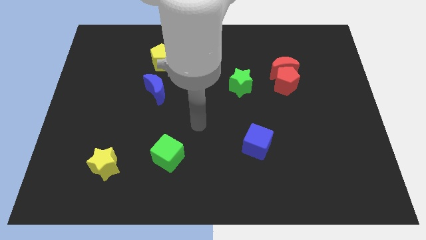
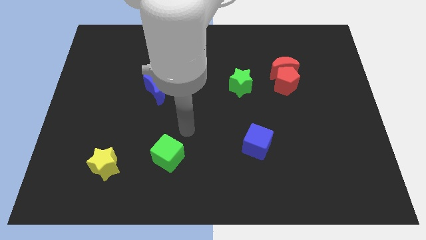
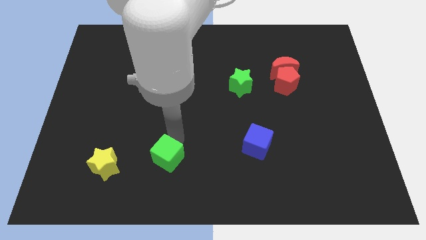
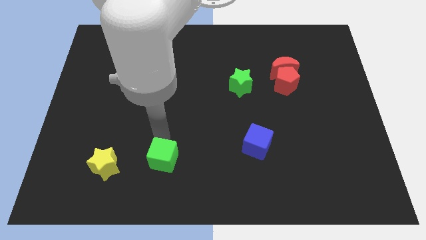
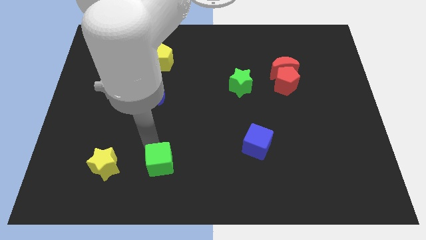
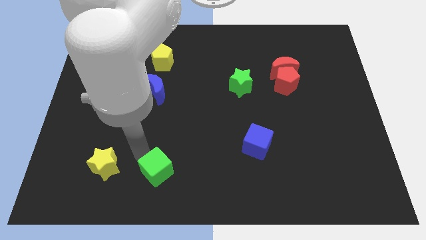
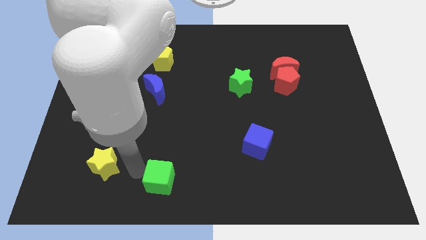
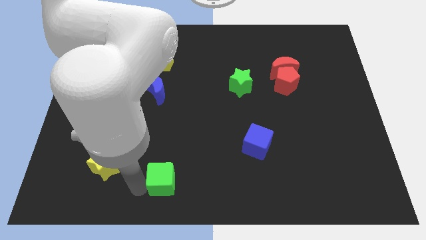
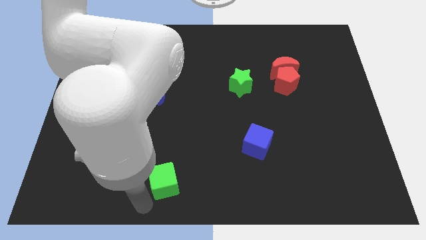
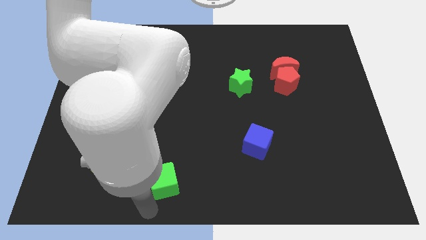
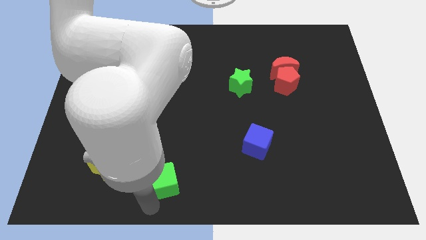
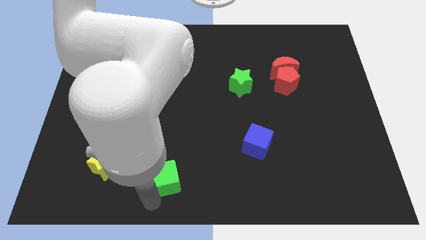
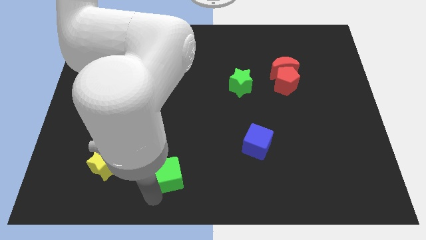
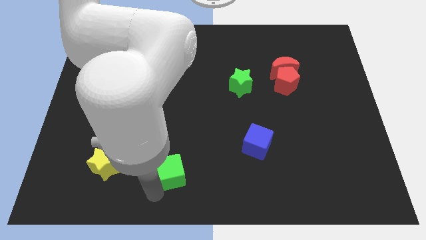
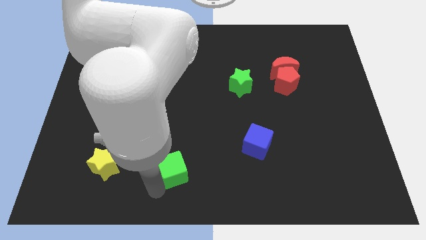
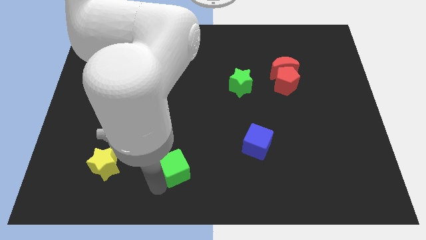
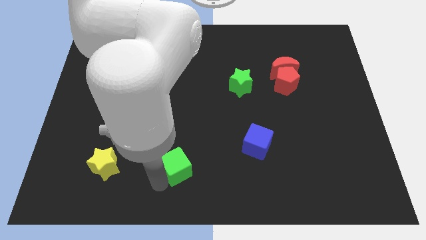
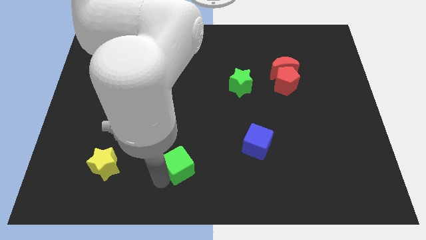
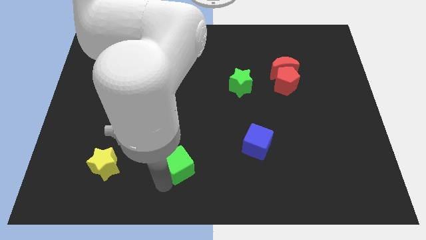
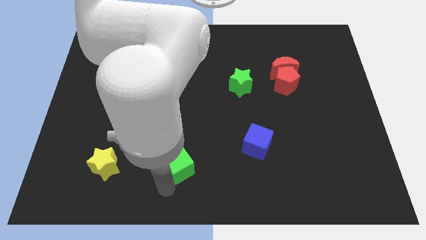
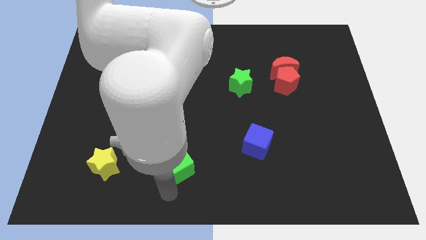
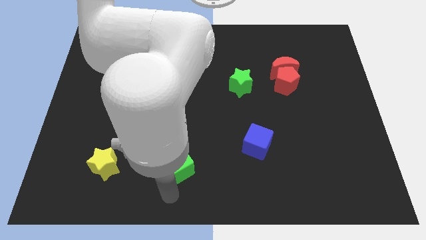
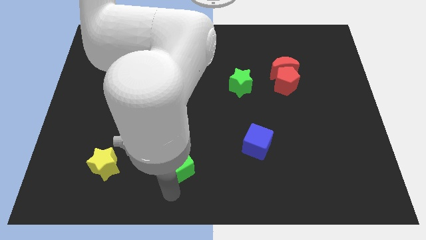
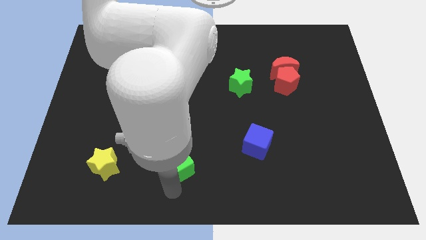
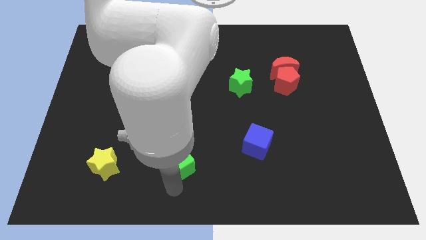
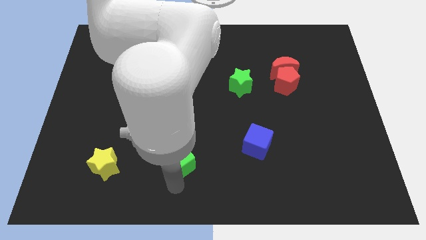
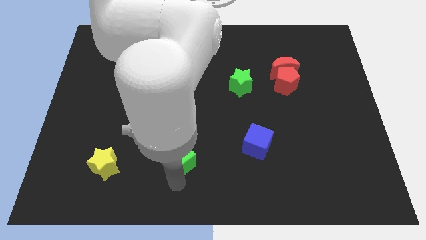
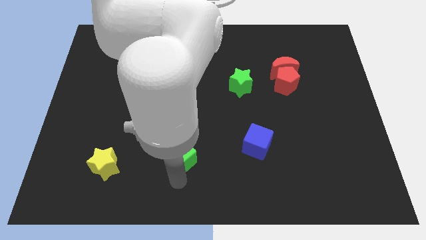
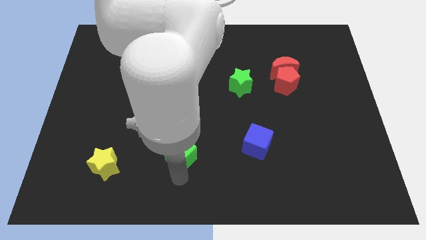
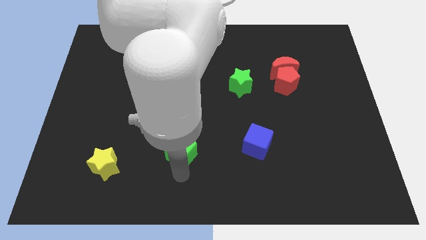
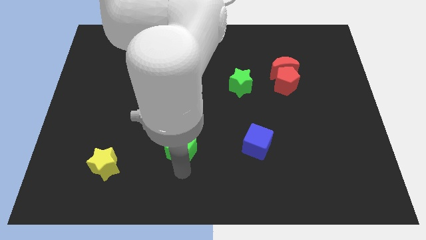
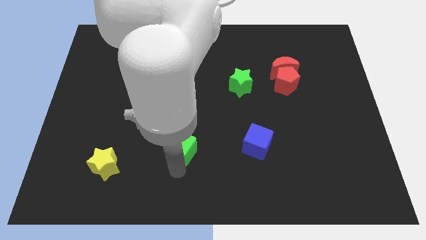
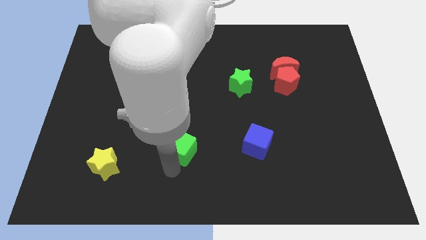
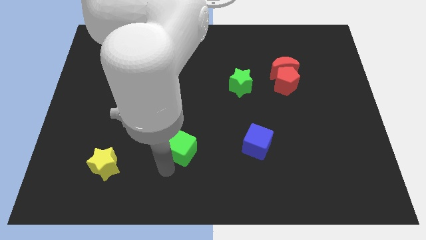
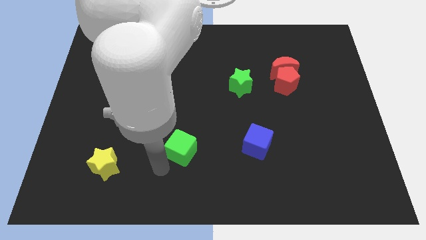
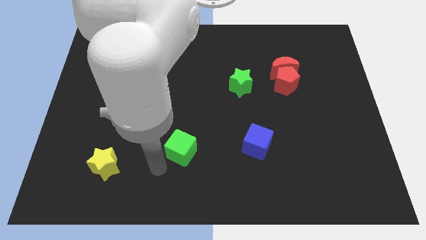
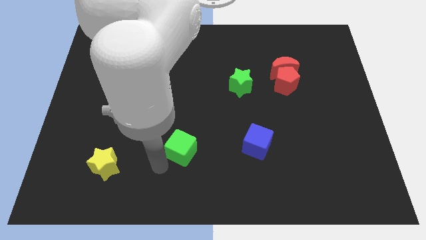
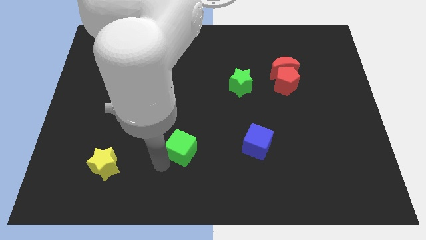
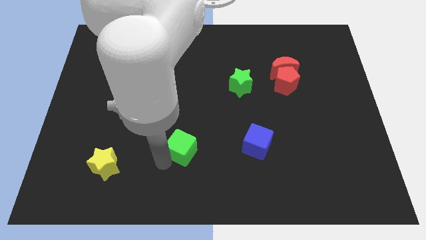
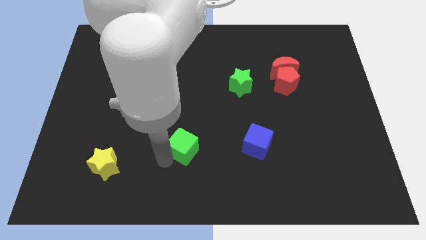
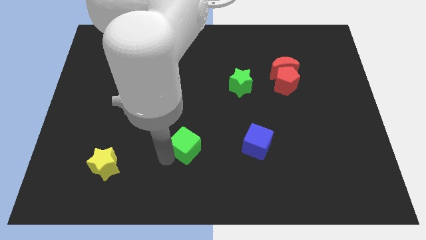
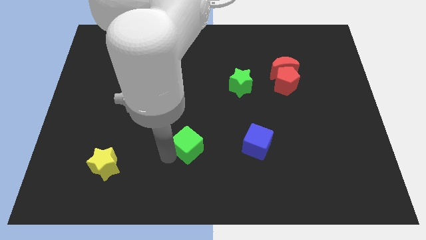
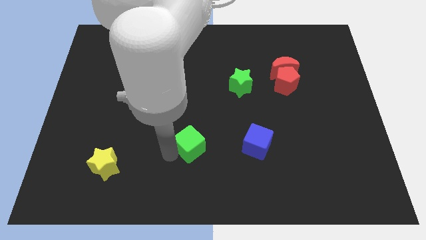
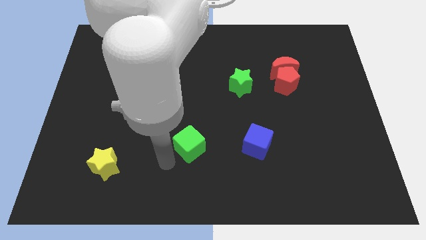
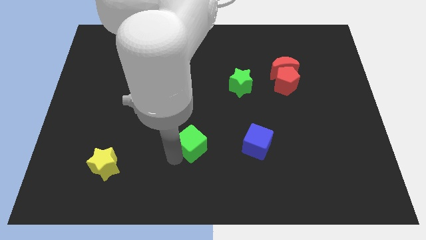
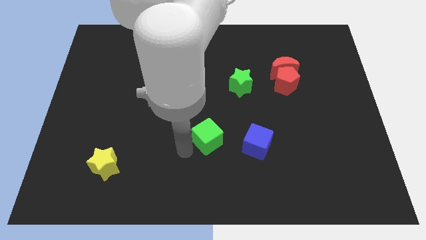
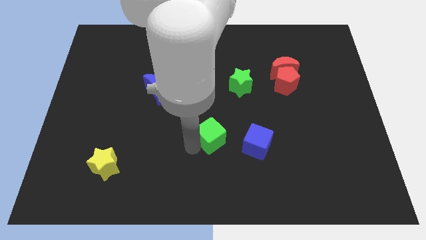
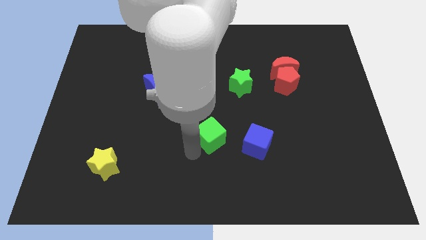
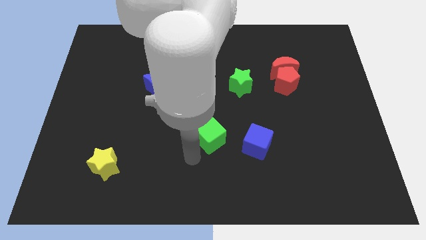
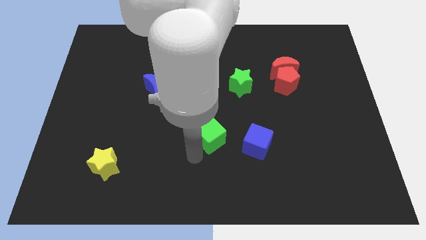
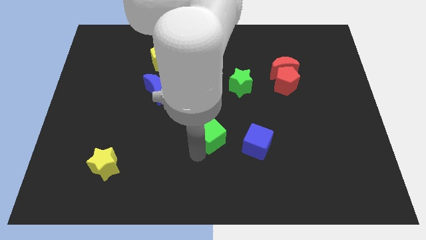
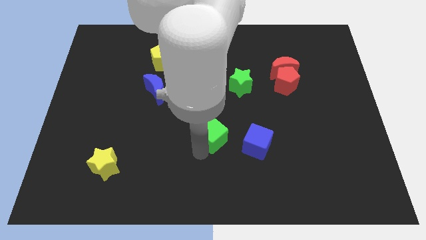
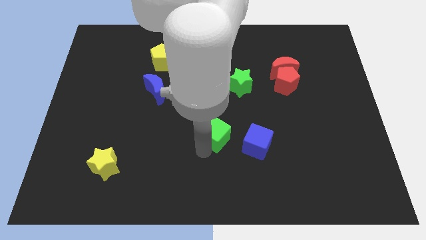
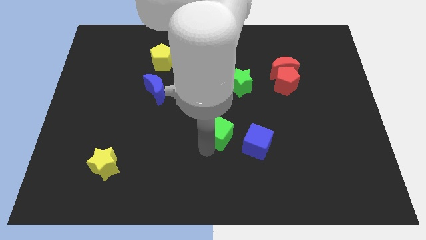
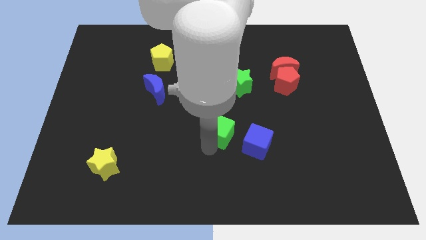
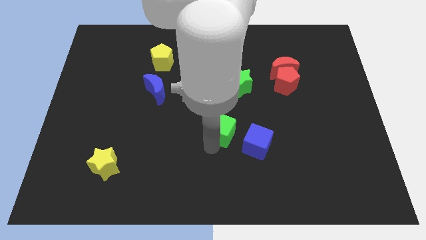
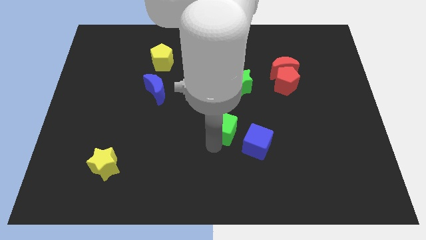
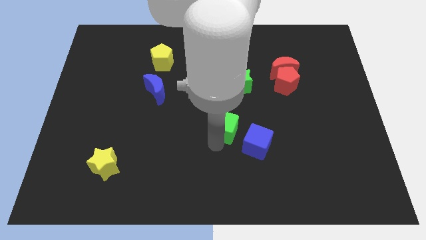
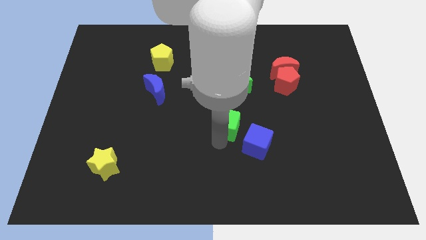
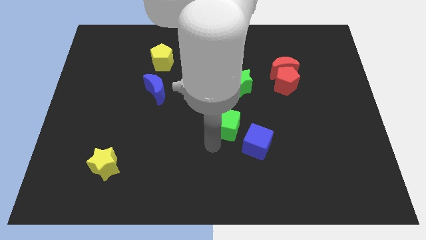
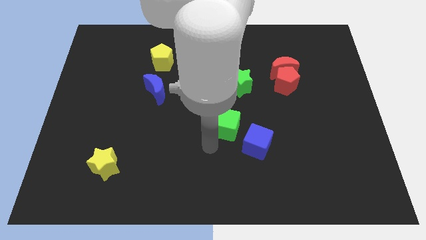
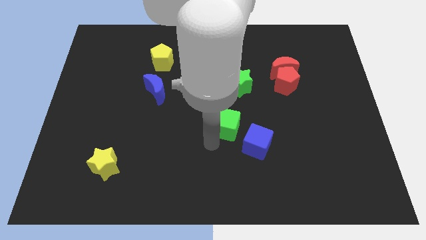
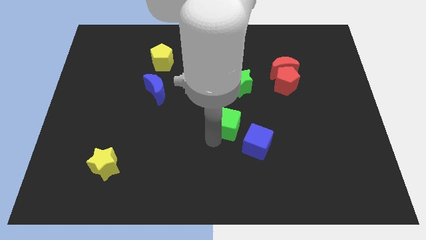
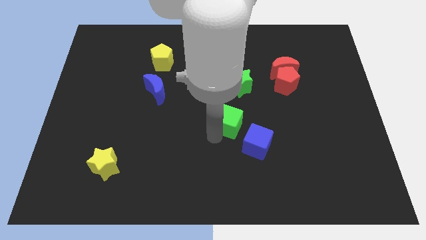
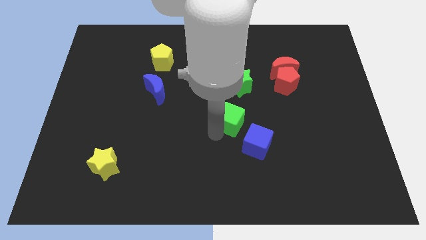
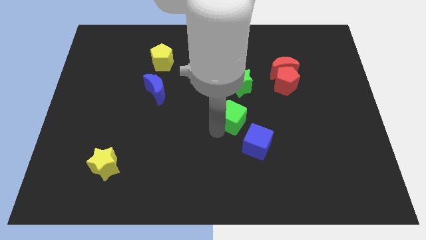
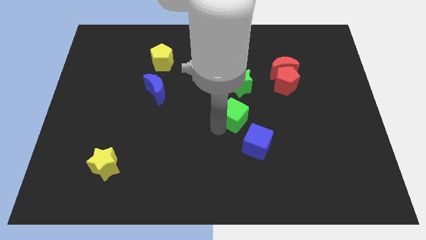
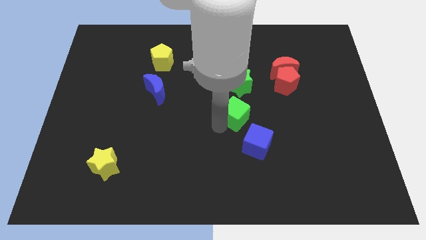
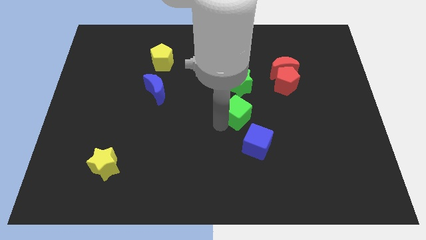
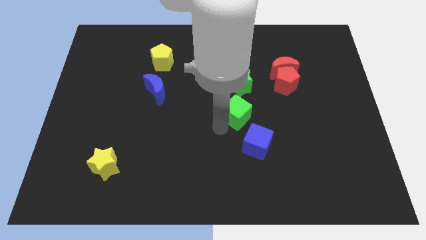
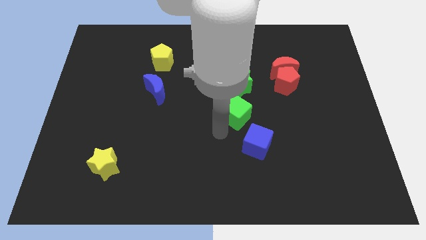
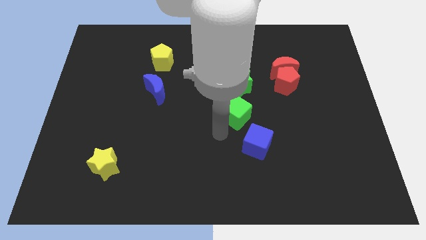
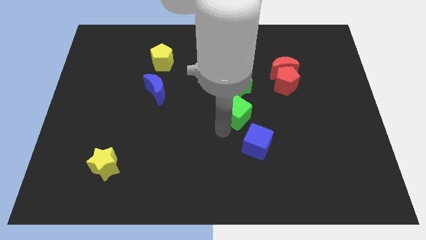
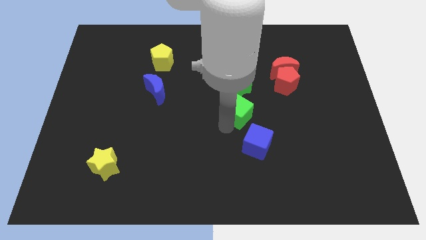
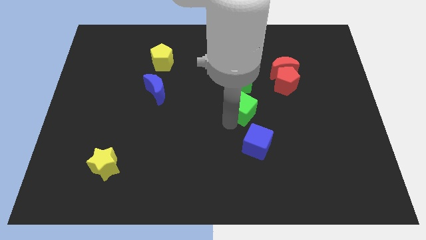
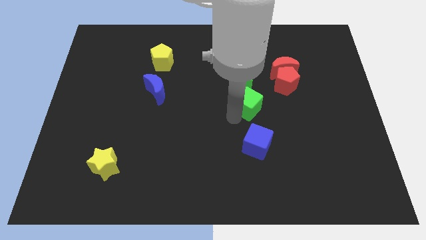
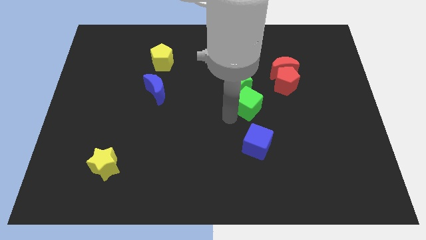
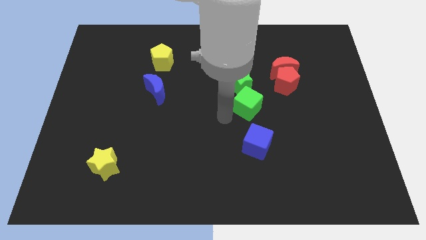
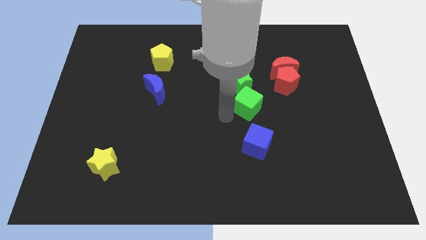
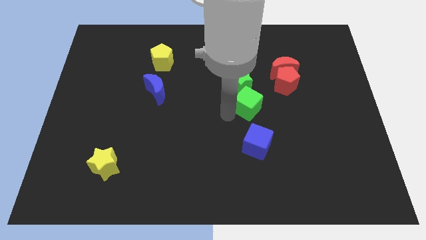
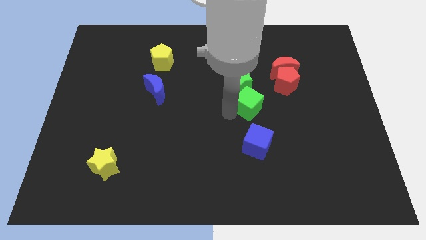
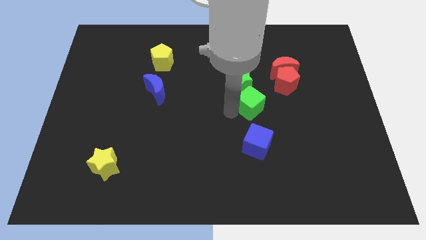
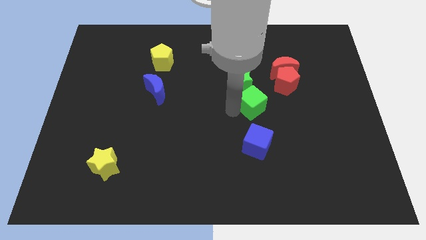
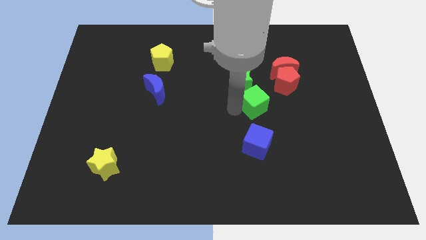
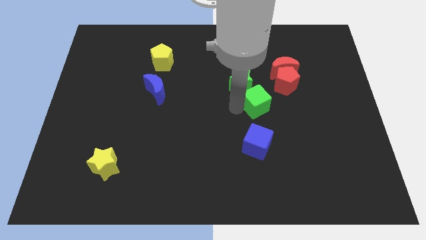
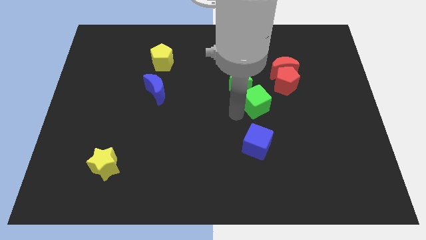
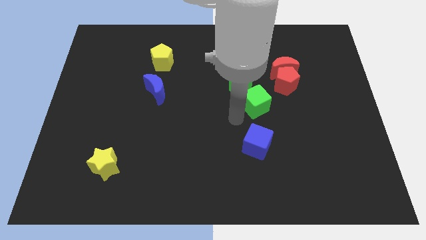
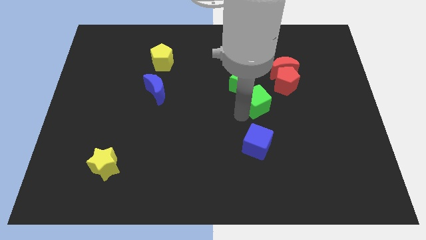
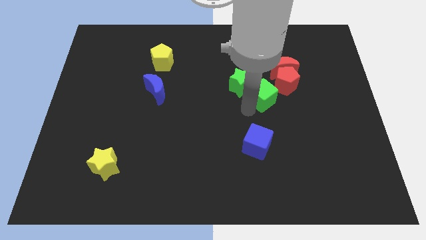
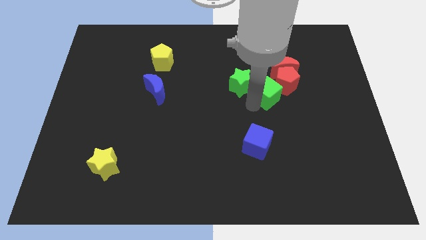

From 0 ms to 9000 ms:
move the green cube next to the red pentagon
